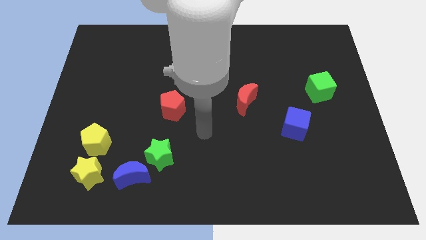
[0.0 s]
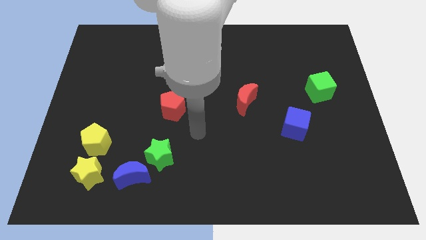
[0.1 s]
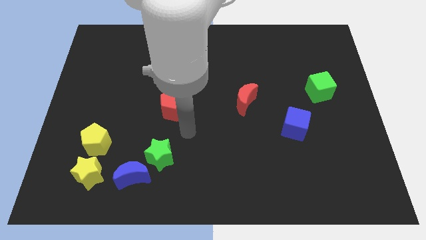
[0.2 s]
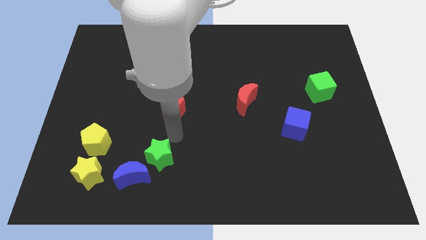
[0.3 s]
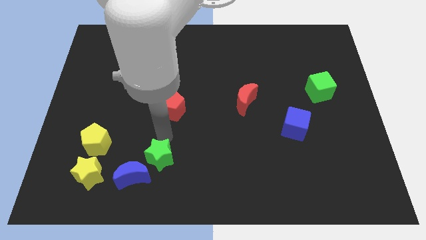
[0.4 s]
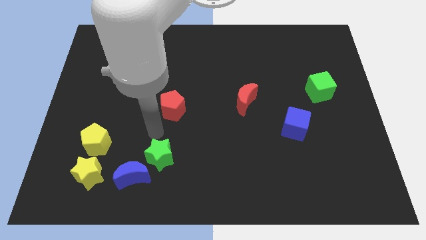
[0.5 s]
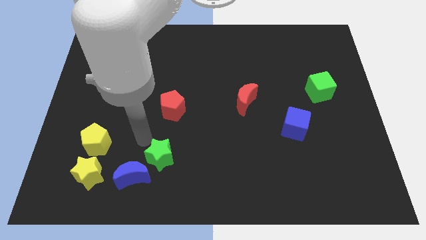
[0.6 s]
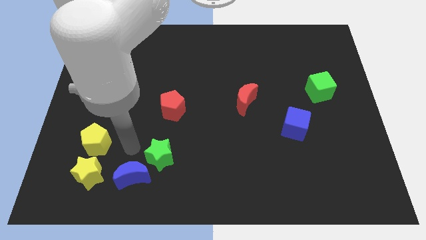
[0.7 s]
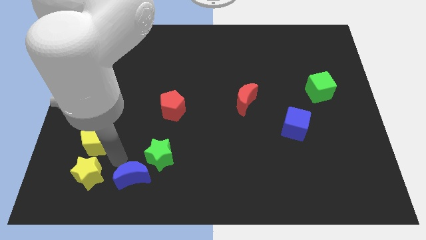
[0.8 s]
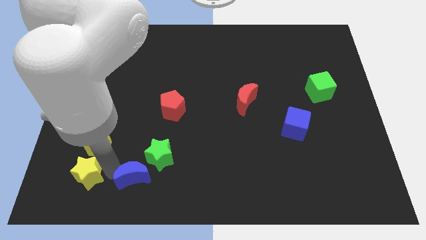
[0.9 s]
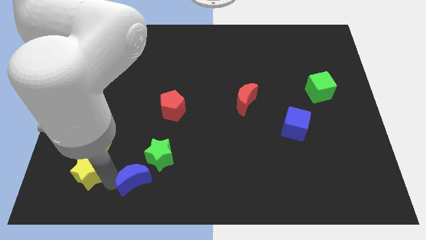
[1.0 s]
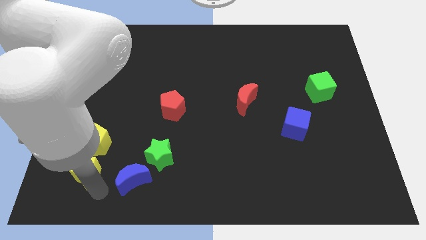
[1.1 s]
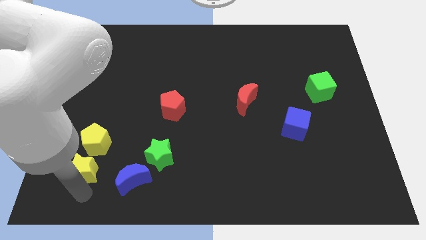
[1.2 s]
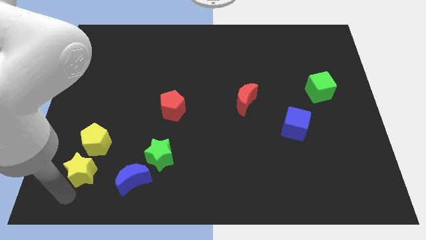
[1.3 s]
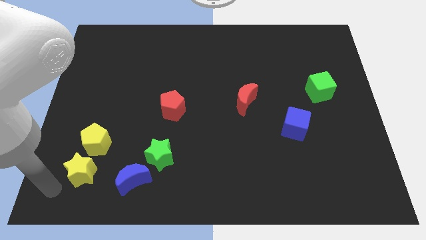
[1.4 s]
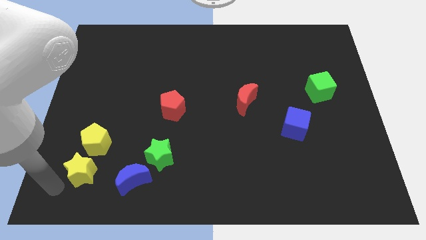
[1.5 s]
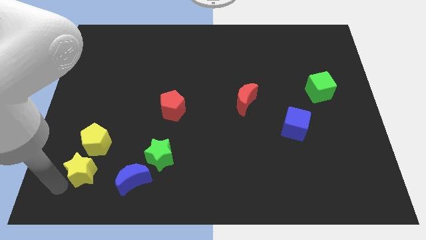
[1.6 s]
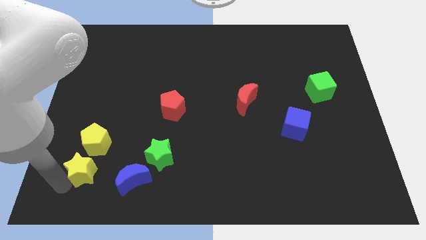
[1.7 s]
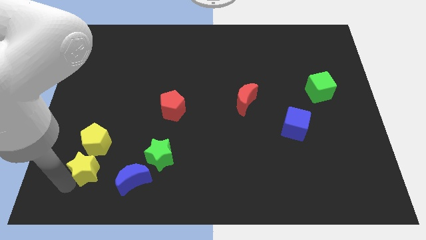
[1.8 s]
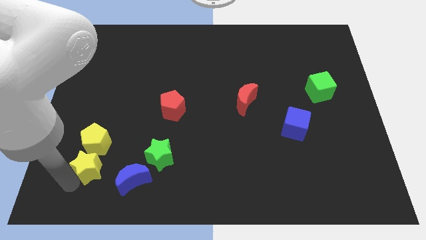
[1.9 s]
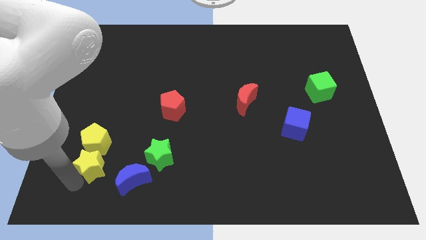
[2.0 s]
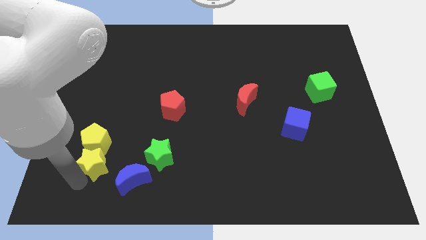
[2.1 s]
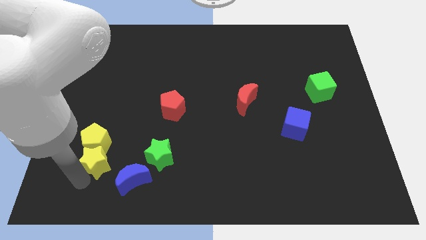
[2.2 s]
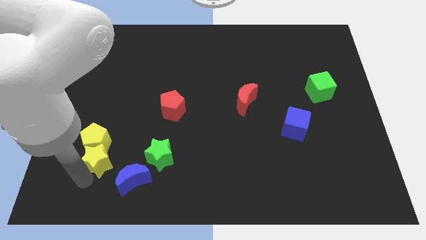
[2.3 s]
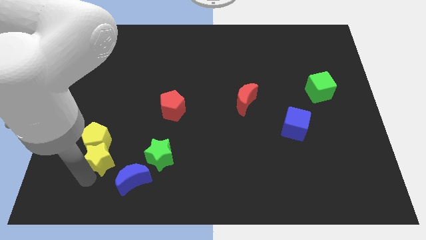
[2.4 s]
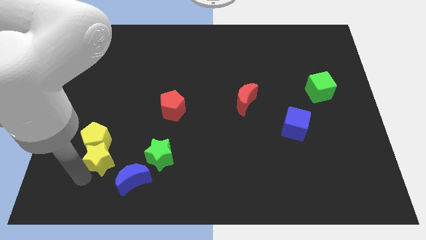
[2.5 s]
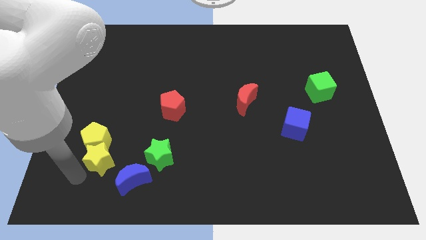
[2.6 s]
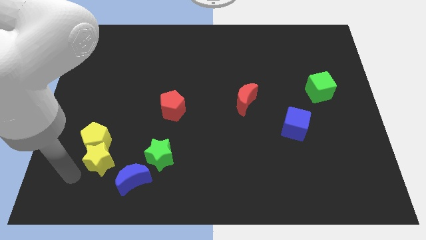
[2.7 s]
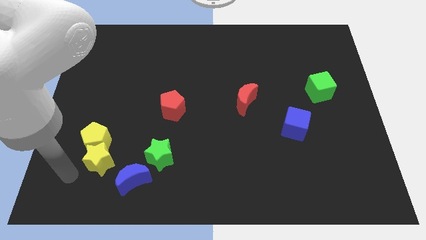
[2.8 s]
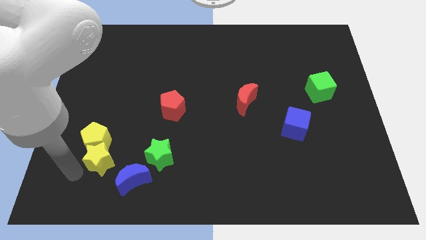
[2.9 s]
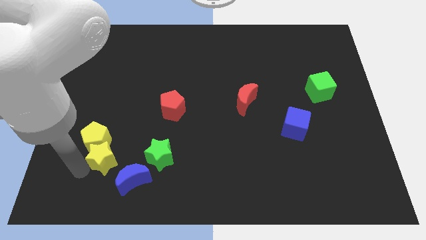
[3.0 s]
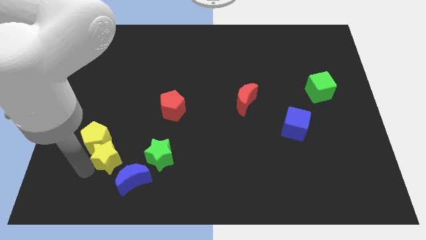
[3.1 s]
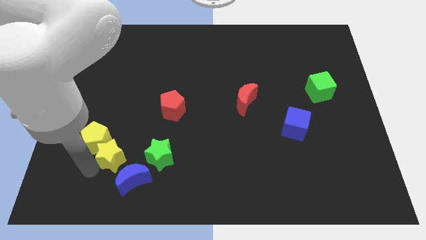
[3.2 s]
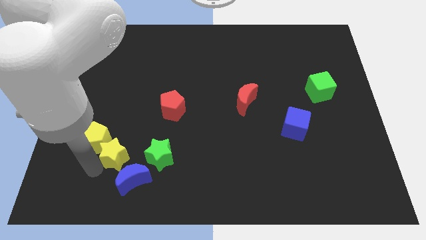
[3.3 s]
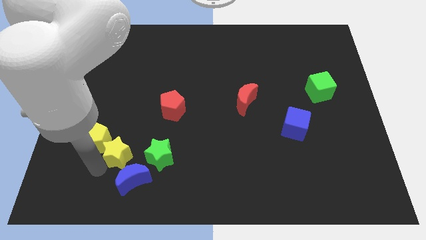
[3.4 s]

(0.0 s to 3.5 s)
slide the yellow star a bit diagonally up and right

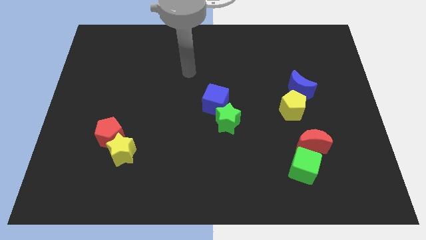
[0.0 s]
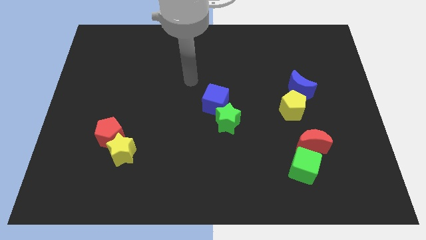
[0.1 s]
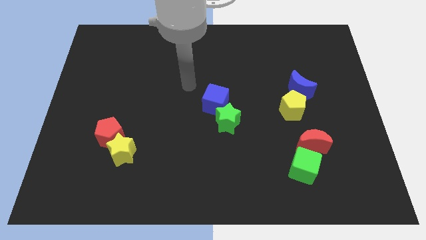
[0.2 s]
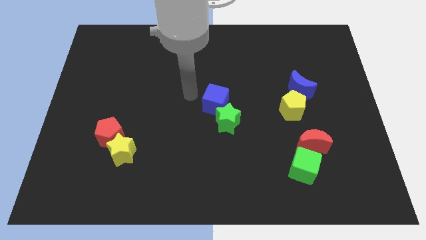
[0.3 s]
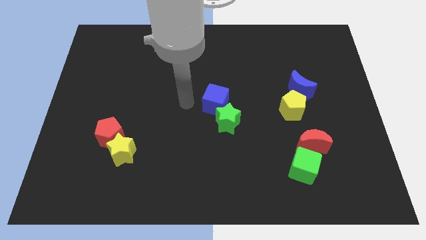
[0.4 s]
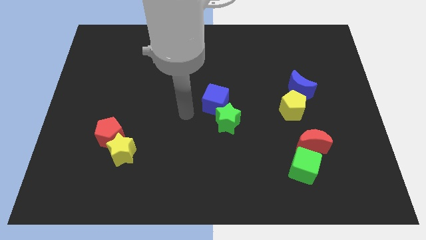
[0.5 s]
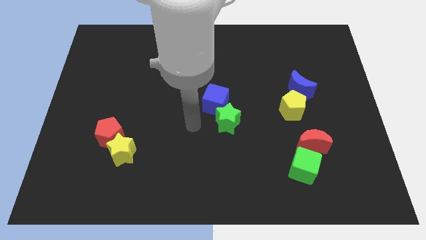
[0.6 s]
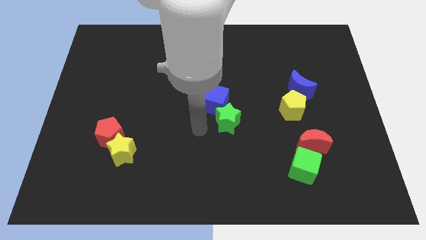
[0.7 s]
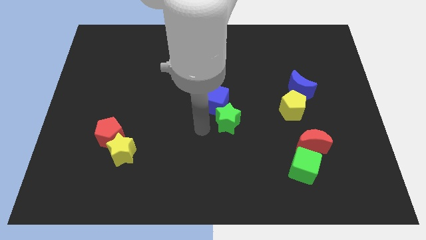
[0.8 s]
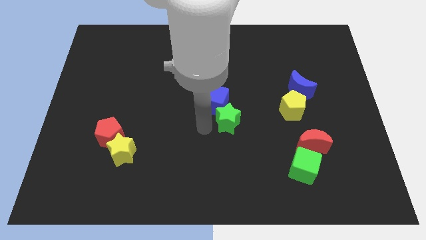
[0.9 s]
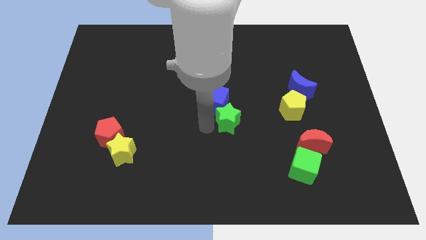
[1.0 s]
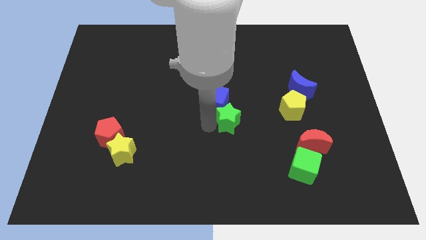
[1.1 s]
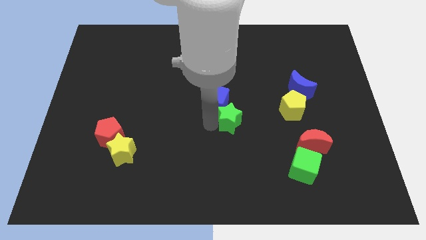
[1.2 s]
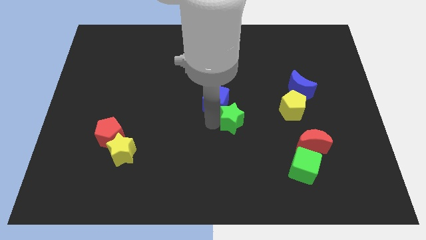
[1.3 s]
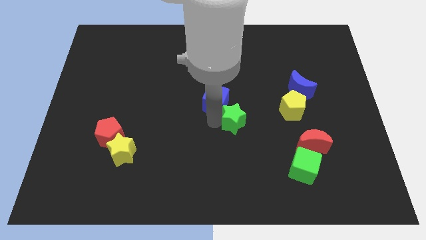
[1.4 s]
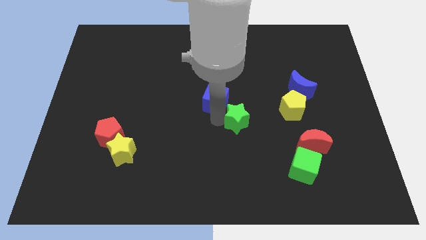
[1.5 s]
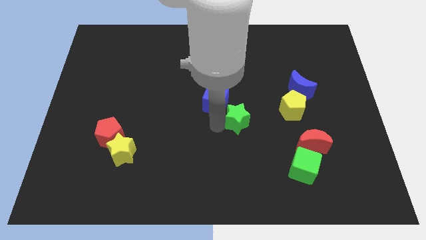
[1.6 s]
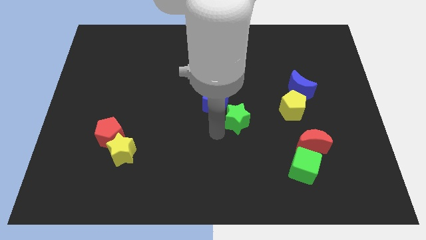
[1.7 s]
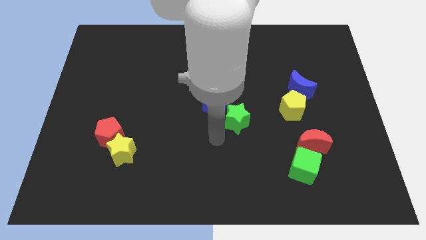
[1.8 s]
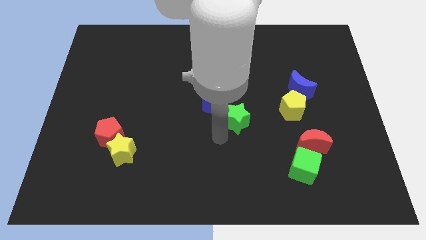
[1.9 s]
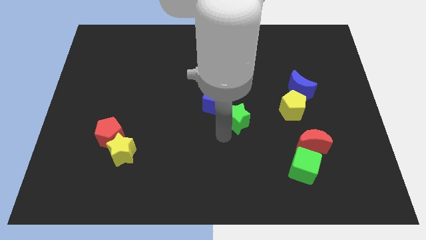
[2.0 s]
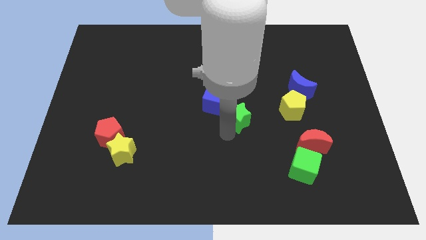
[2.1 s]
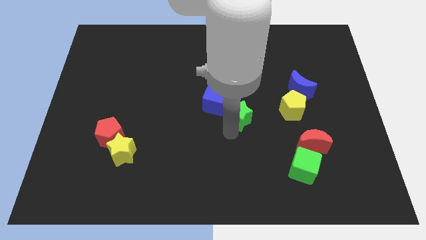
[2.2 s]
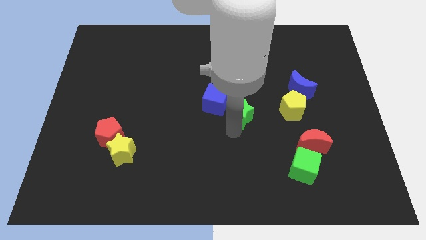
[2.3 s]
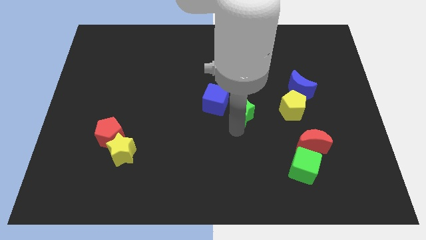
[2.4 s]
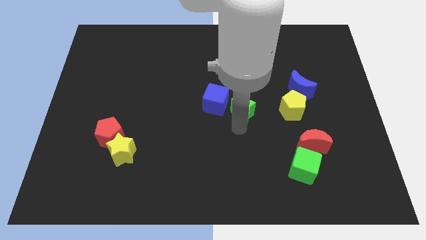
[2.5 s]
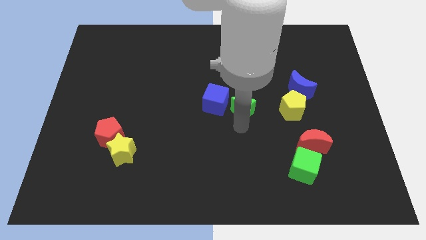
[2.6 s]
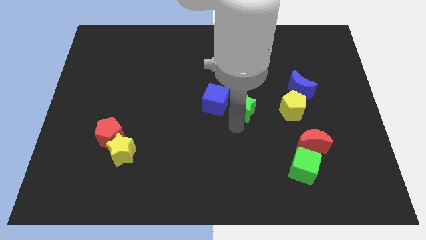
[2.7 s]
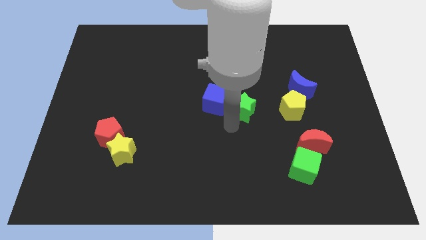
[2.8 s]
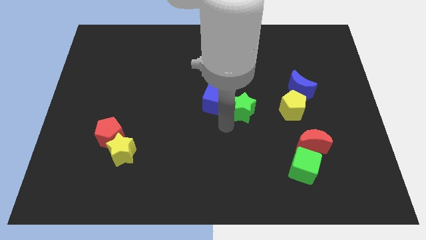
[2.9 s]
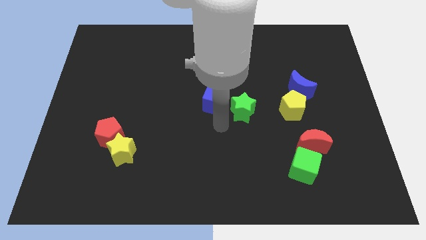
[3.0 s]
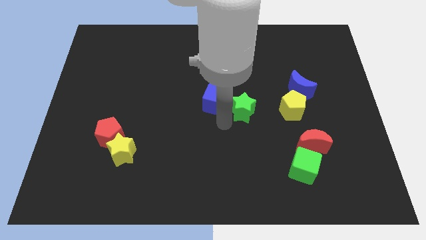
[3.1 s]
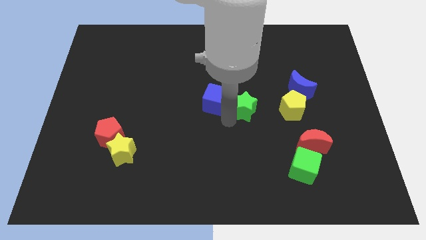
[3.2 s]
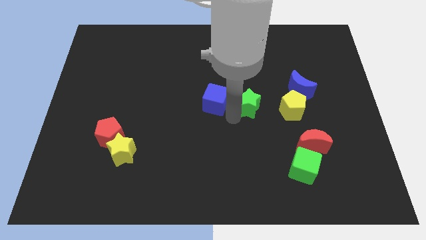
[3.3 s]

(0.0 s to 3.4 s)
move the green star upwards and then to the right a little

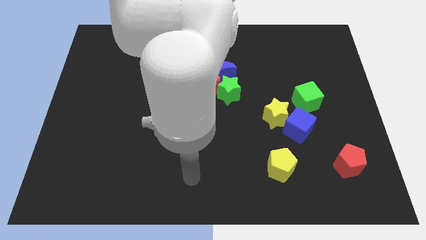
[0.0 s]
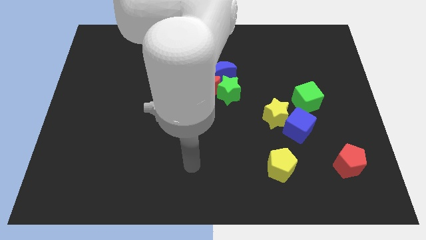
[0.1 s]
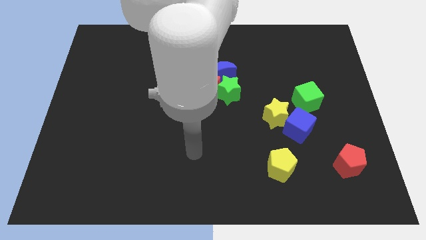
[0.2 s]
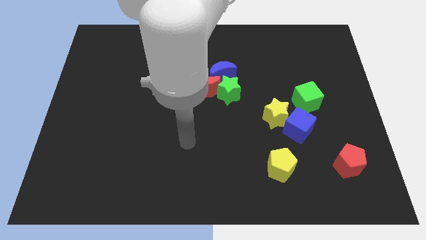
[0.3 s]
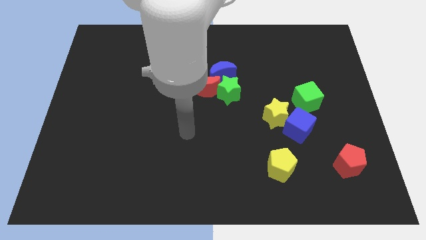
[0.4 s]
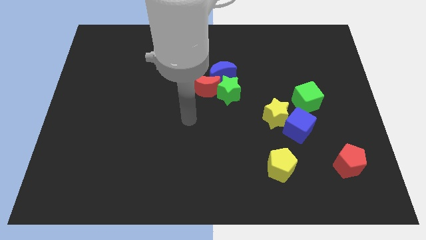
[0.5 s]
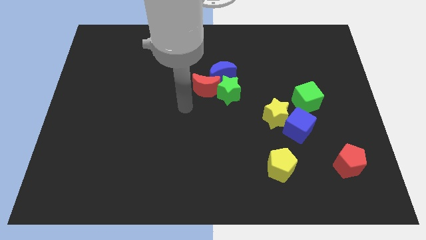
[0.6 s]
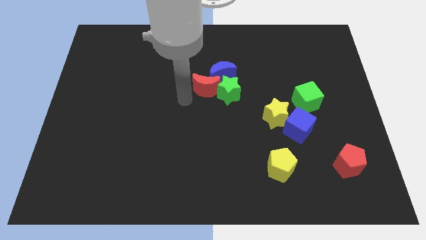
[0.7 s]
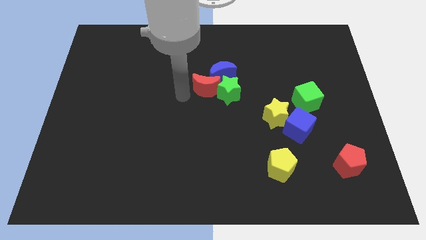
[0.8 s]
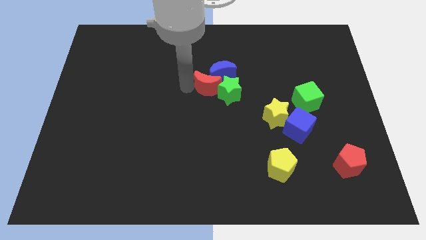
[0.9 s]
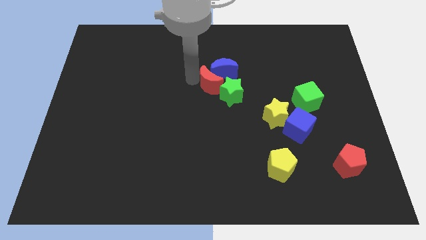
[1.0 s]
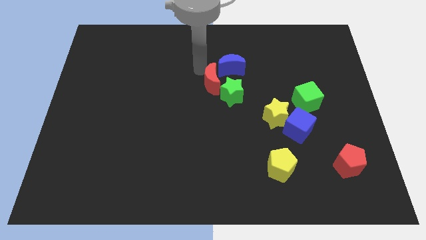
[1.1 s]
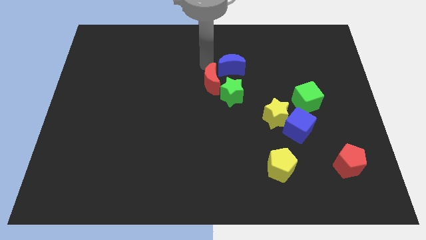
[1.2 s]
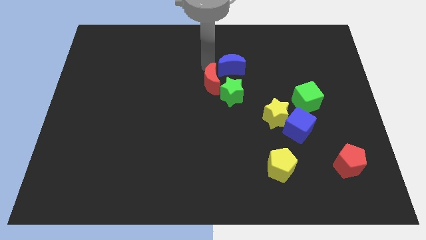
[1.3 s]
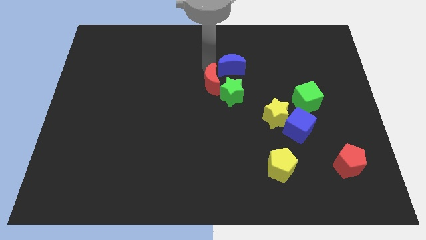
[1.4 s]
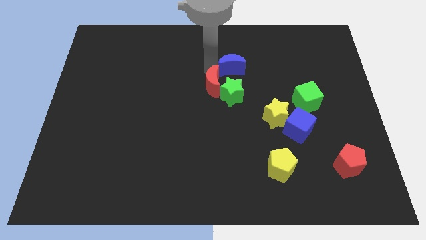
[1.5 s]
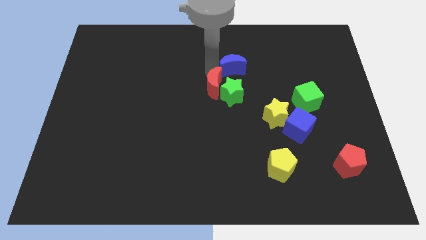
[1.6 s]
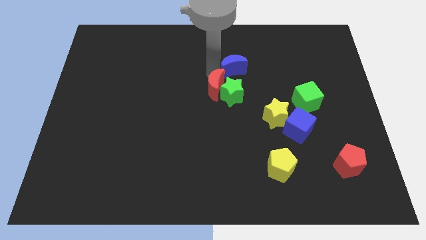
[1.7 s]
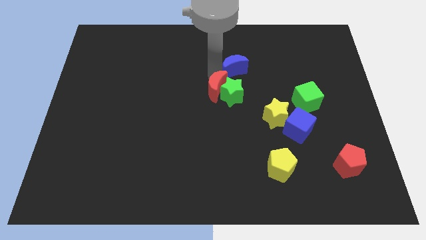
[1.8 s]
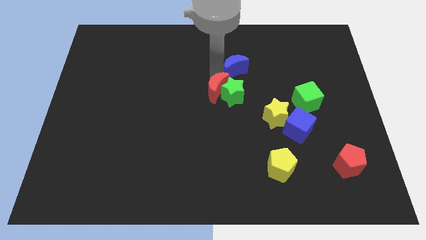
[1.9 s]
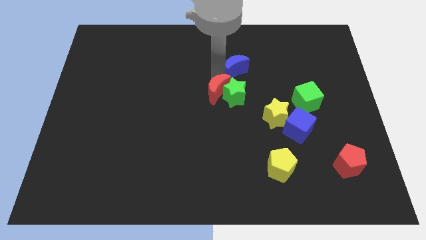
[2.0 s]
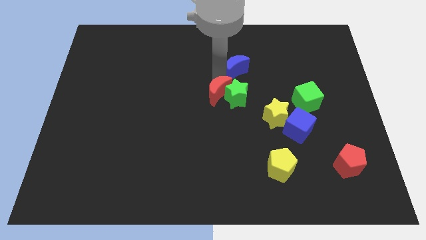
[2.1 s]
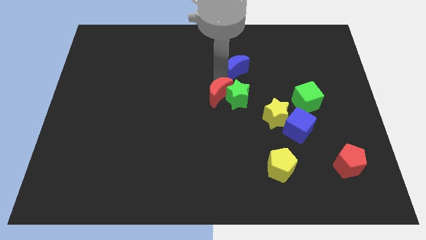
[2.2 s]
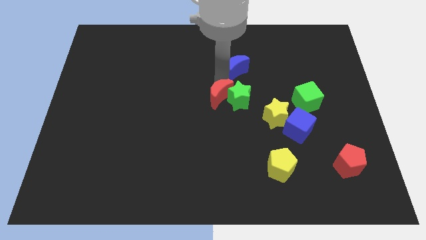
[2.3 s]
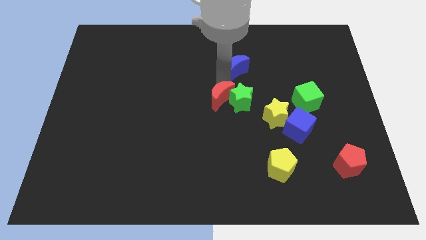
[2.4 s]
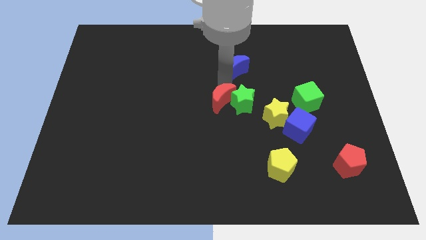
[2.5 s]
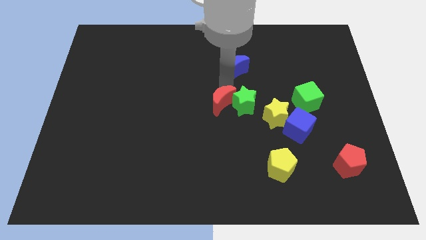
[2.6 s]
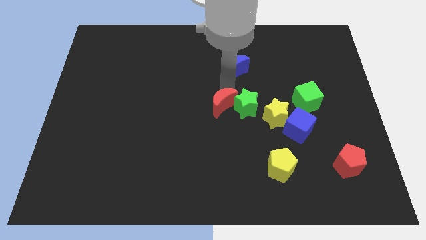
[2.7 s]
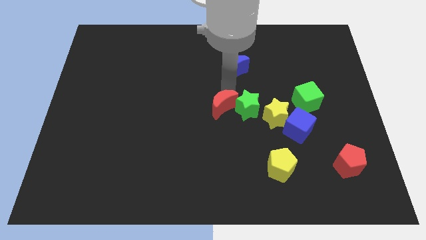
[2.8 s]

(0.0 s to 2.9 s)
slightly push the red moon down and then to the right
